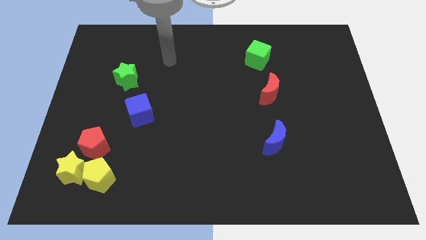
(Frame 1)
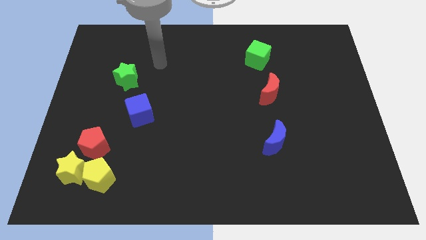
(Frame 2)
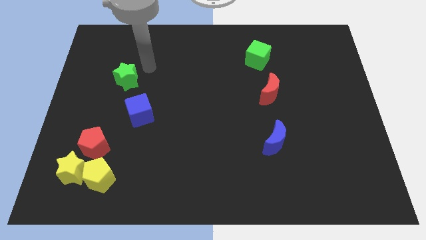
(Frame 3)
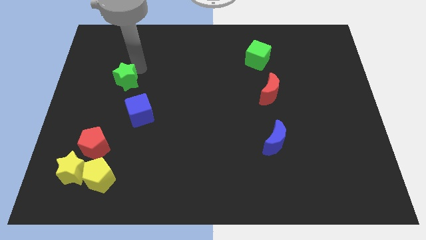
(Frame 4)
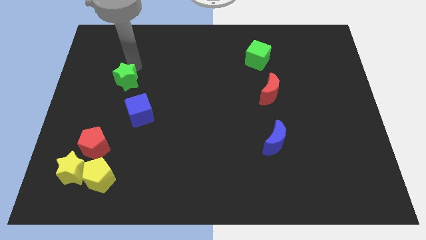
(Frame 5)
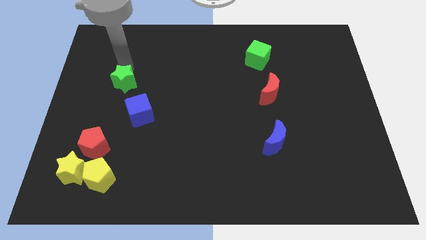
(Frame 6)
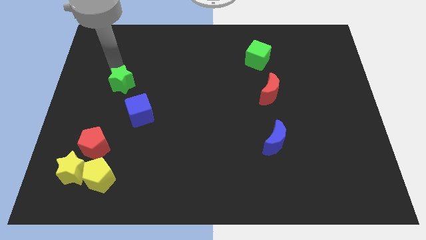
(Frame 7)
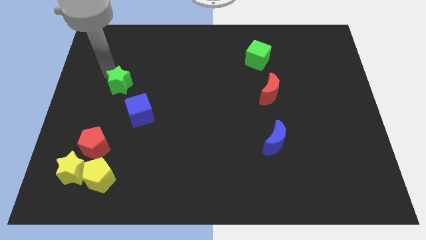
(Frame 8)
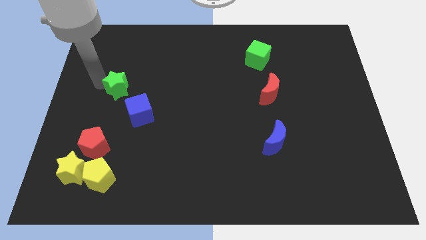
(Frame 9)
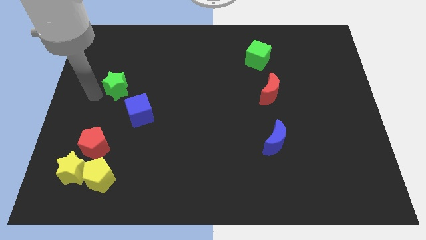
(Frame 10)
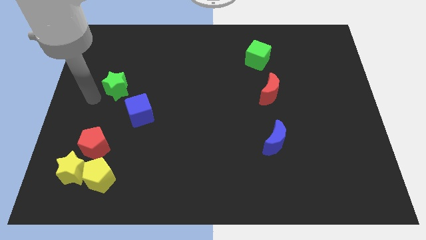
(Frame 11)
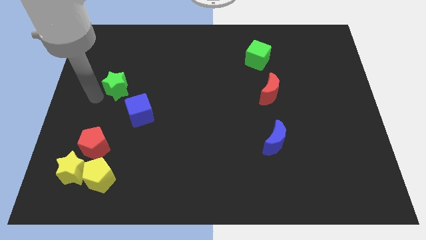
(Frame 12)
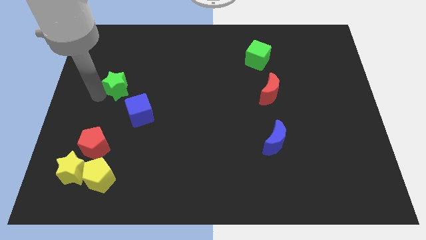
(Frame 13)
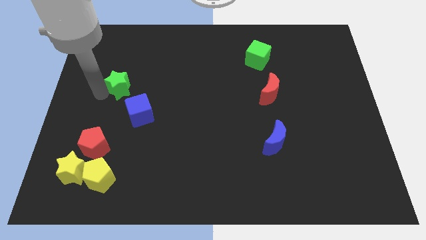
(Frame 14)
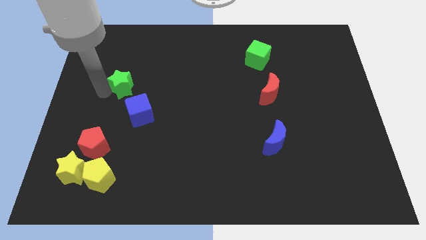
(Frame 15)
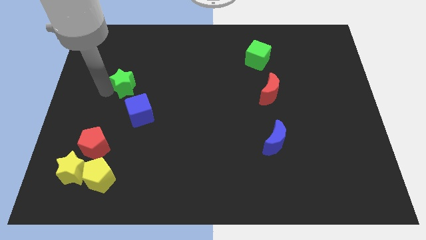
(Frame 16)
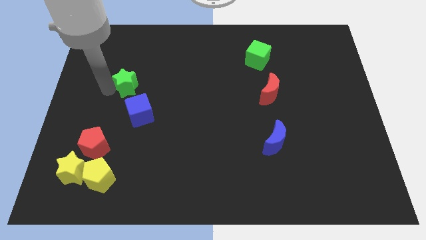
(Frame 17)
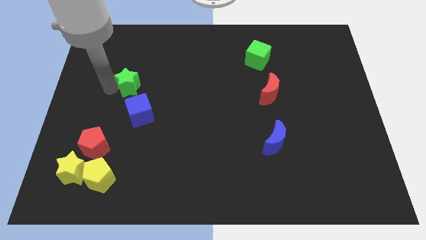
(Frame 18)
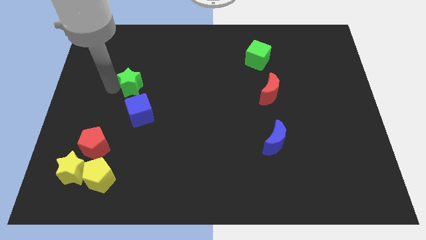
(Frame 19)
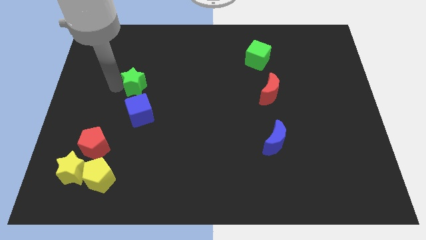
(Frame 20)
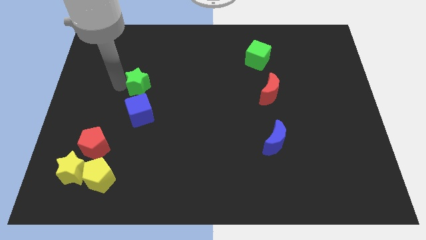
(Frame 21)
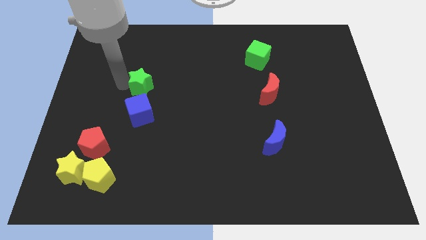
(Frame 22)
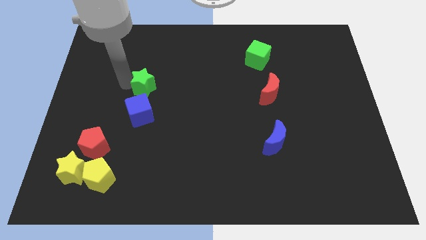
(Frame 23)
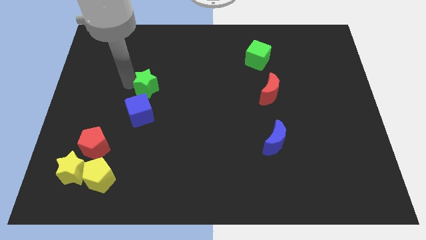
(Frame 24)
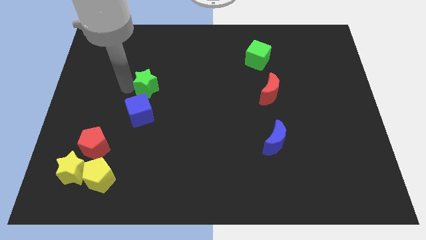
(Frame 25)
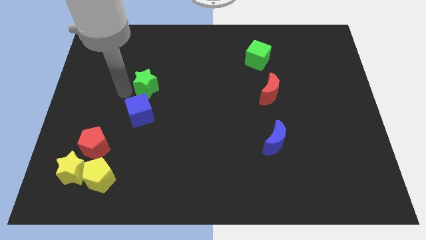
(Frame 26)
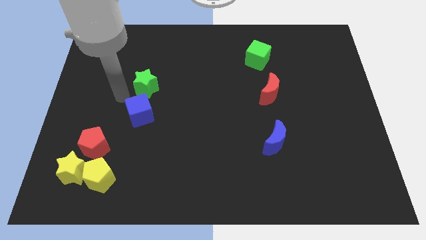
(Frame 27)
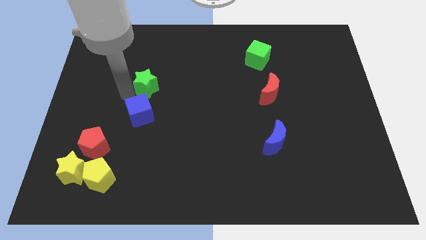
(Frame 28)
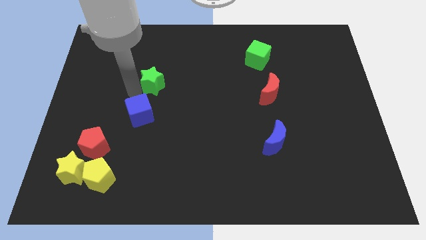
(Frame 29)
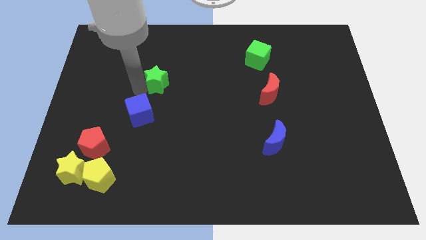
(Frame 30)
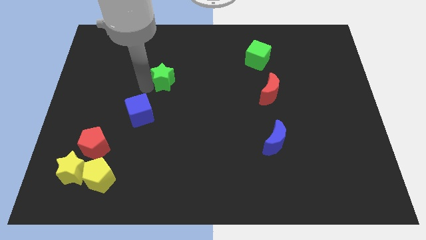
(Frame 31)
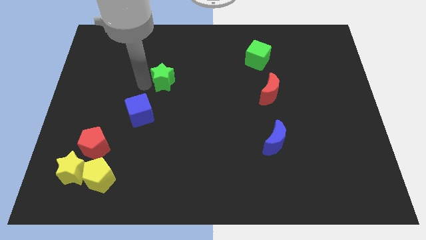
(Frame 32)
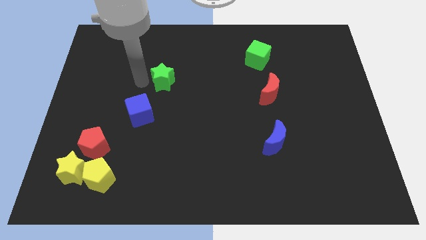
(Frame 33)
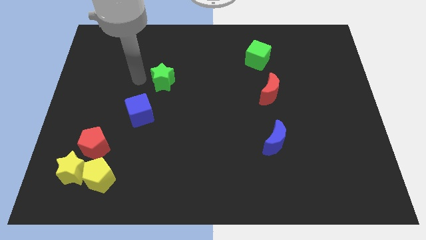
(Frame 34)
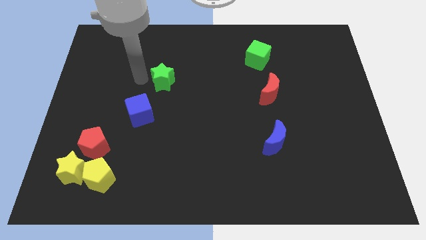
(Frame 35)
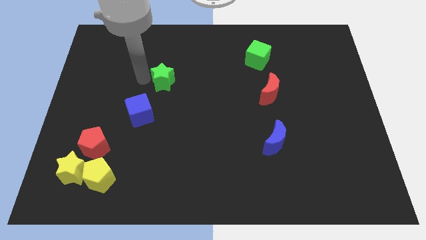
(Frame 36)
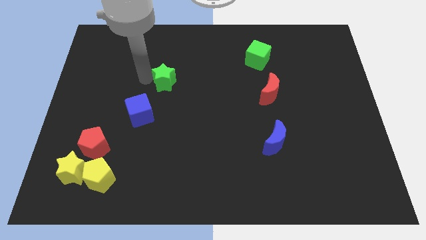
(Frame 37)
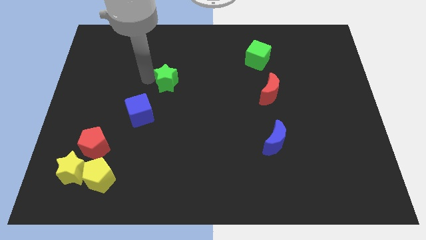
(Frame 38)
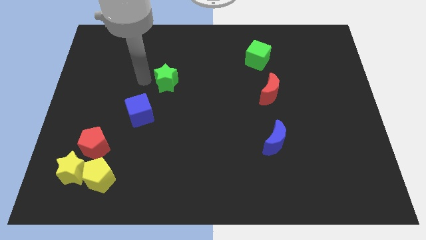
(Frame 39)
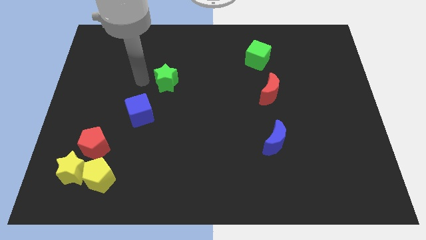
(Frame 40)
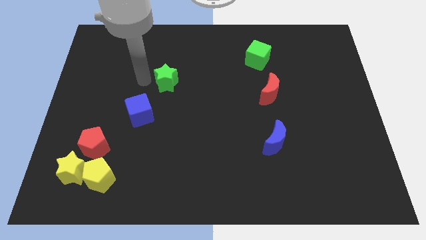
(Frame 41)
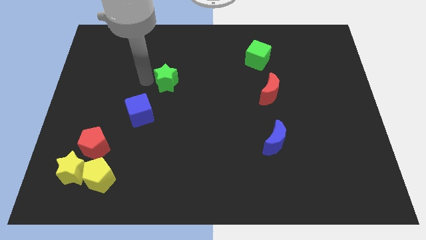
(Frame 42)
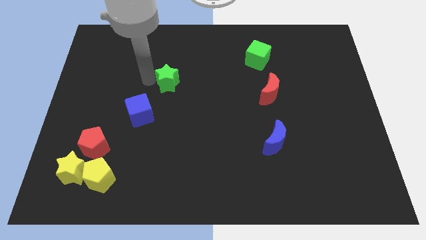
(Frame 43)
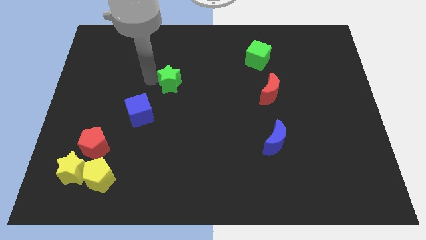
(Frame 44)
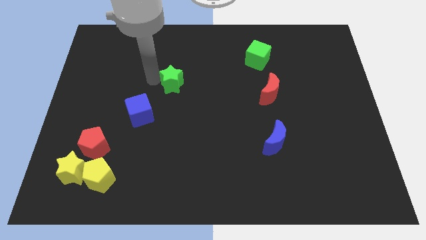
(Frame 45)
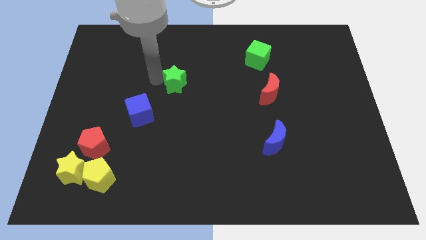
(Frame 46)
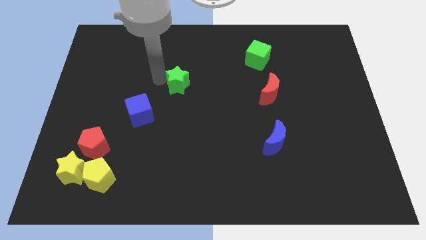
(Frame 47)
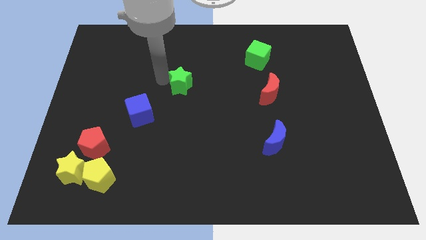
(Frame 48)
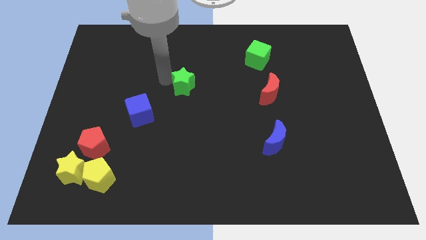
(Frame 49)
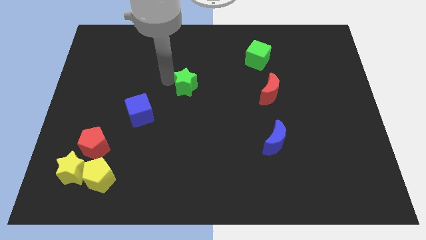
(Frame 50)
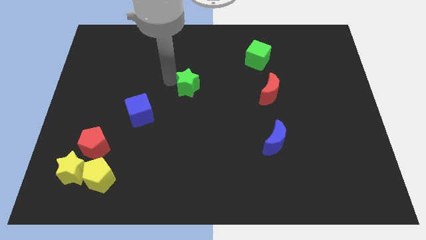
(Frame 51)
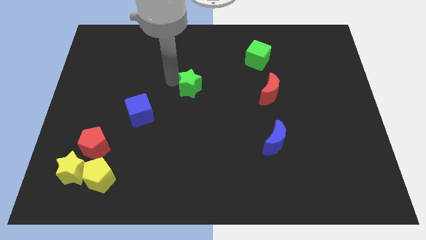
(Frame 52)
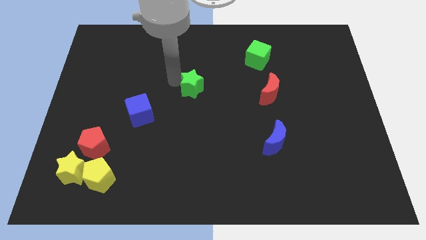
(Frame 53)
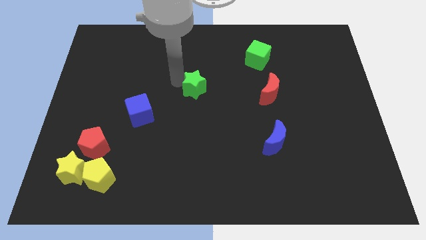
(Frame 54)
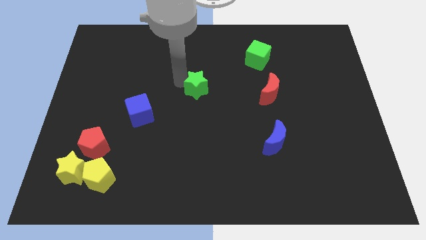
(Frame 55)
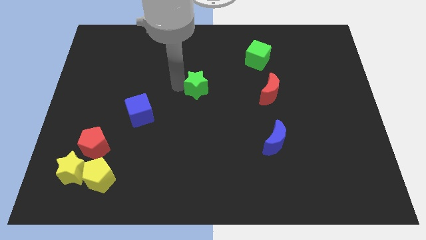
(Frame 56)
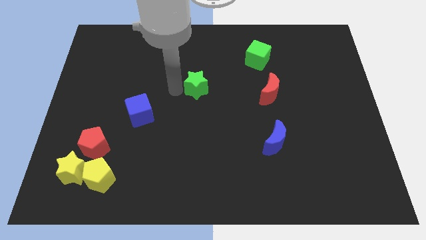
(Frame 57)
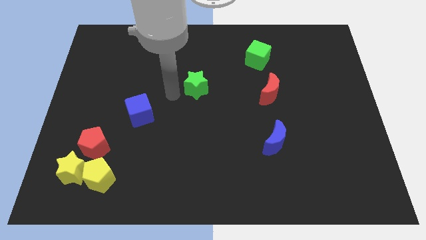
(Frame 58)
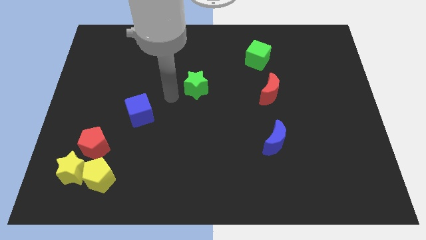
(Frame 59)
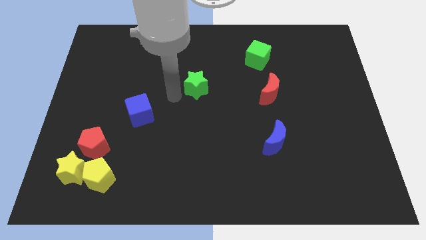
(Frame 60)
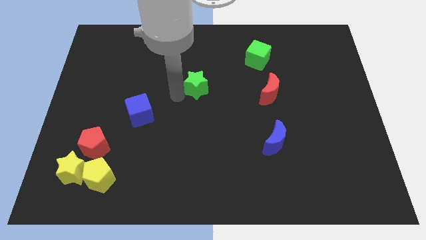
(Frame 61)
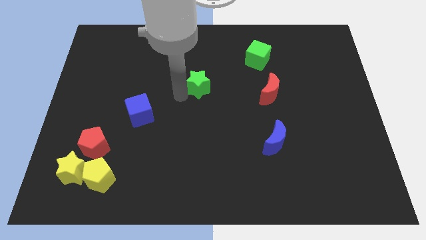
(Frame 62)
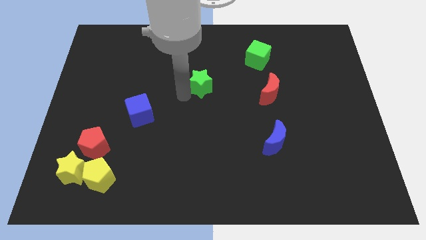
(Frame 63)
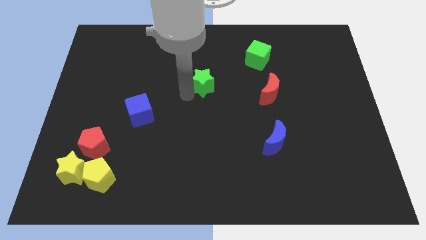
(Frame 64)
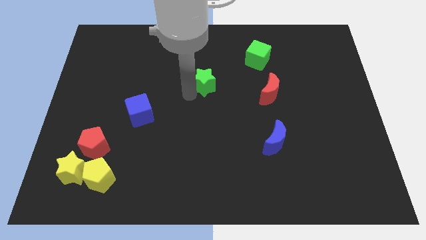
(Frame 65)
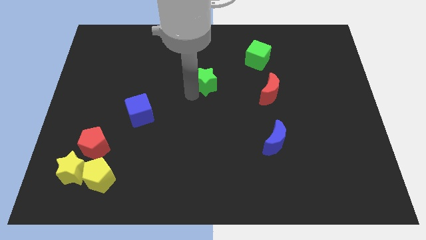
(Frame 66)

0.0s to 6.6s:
push the green star right

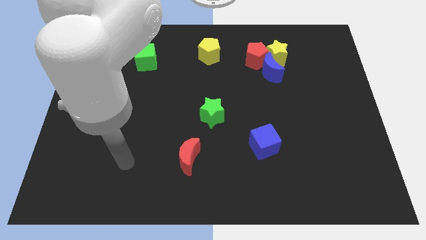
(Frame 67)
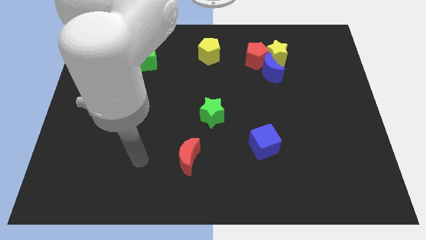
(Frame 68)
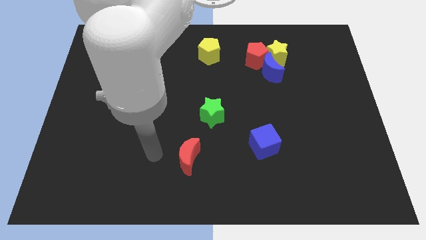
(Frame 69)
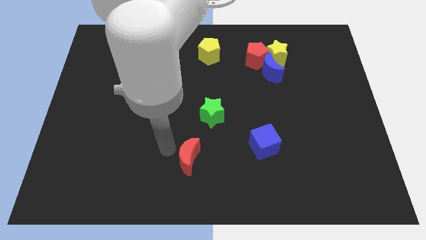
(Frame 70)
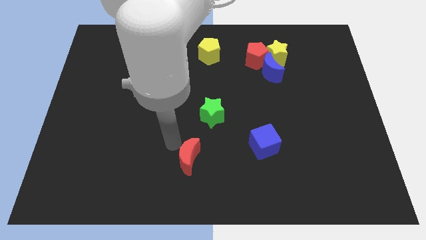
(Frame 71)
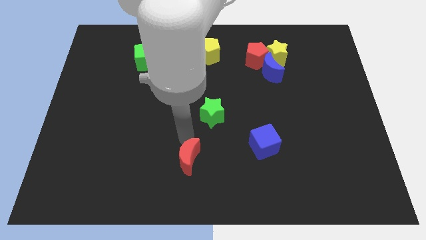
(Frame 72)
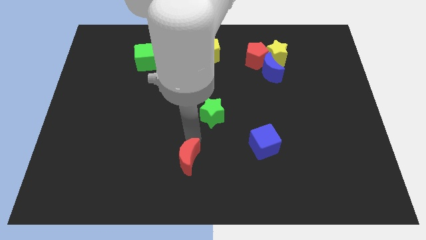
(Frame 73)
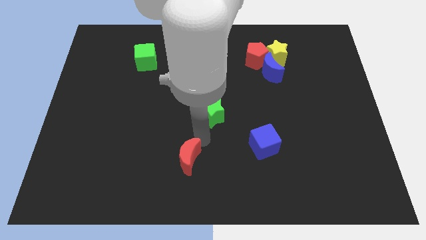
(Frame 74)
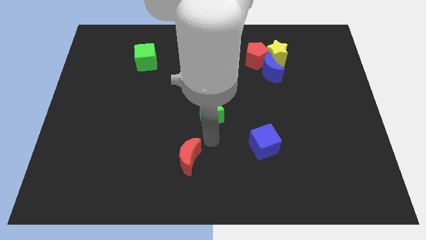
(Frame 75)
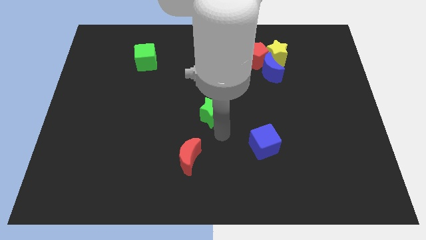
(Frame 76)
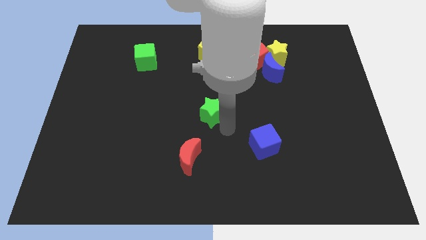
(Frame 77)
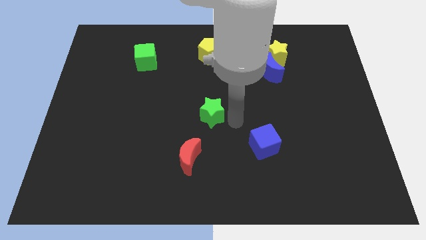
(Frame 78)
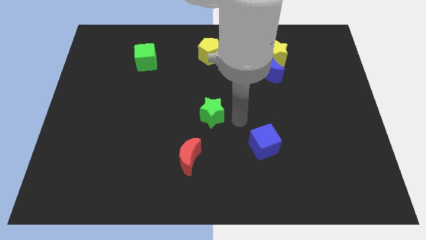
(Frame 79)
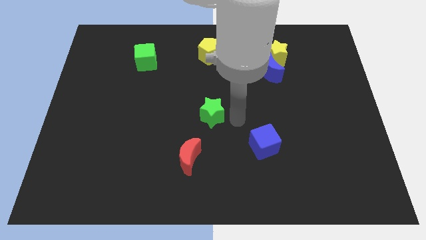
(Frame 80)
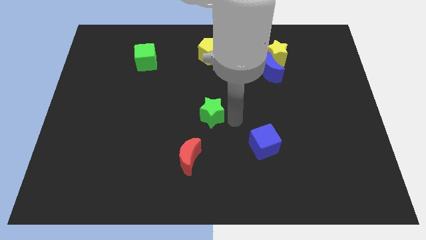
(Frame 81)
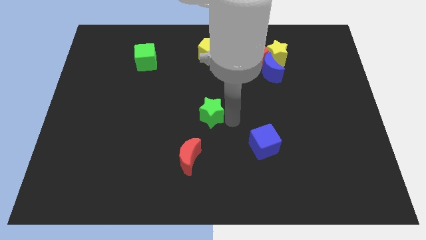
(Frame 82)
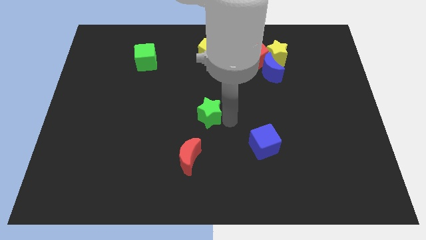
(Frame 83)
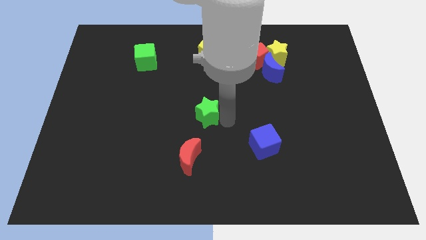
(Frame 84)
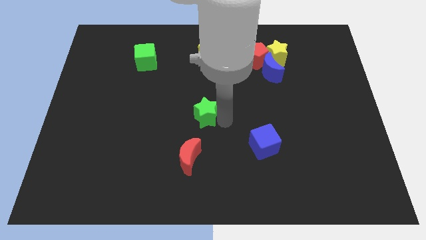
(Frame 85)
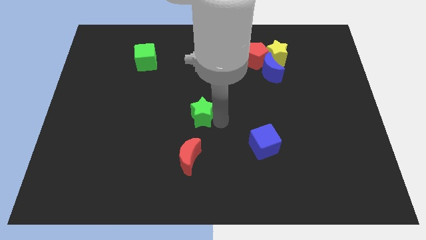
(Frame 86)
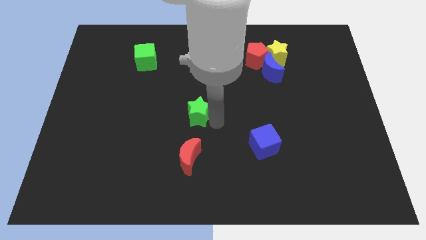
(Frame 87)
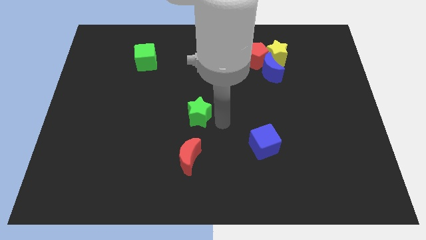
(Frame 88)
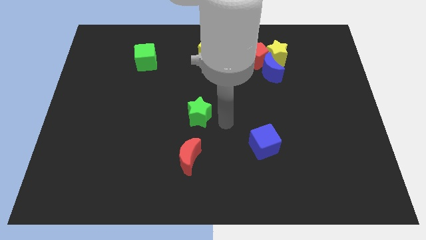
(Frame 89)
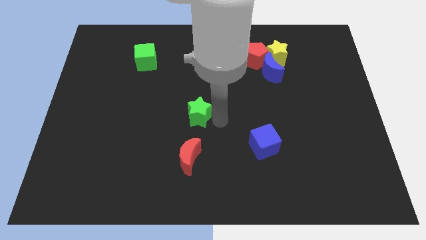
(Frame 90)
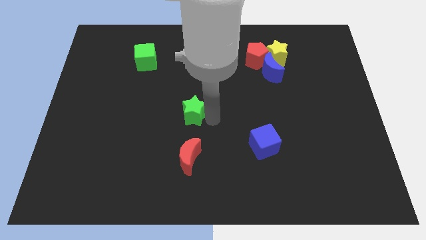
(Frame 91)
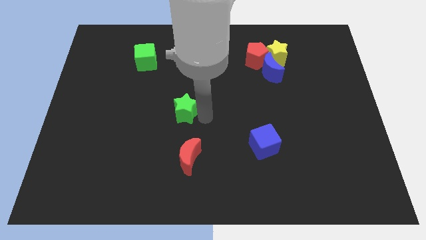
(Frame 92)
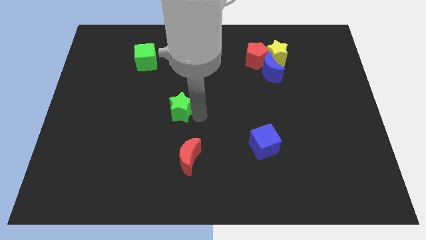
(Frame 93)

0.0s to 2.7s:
slightly push the green star left
